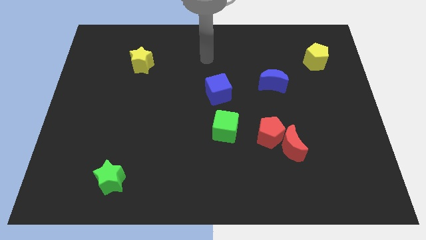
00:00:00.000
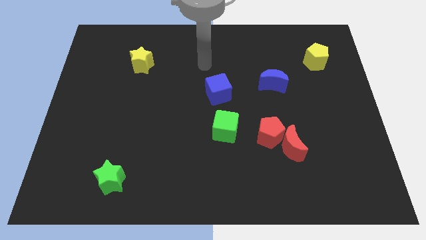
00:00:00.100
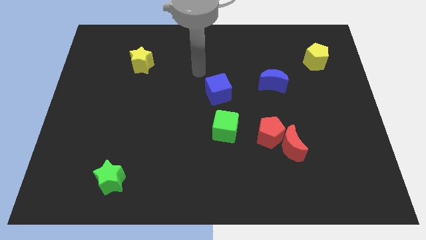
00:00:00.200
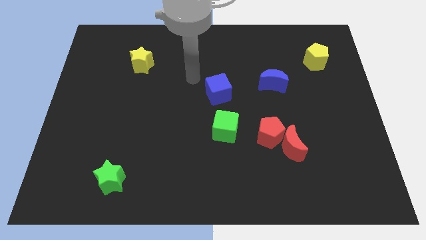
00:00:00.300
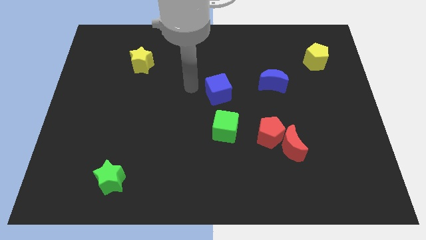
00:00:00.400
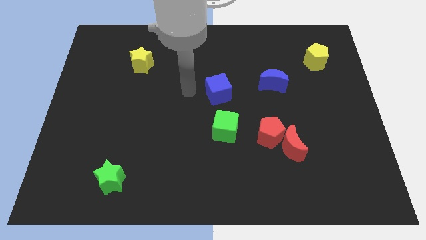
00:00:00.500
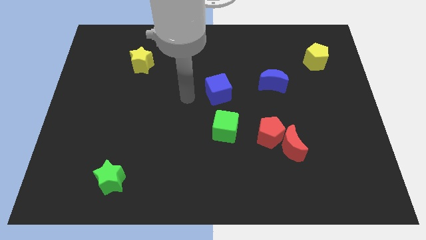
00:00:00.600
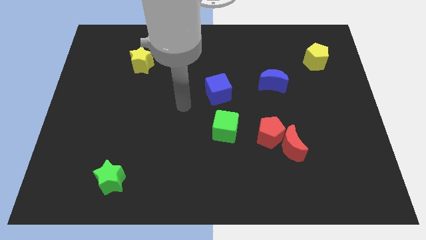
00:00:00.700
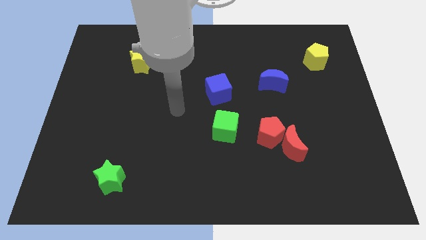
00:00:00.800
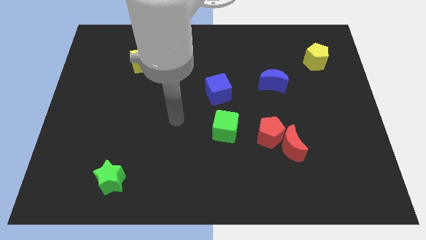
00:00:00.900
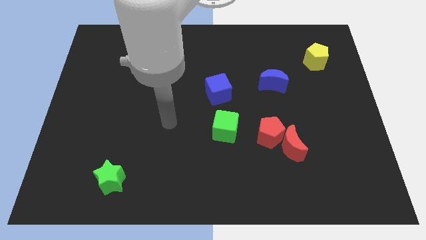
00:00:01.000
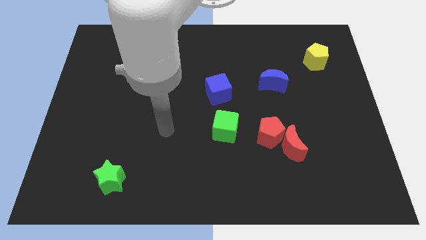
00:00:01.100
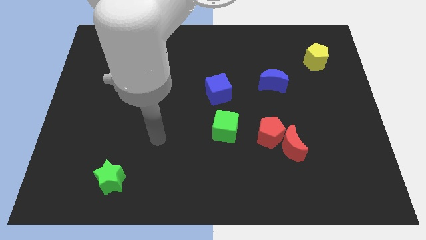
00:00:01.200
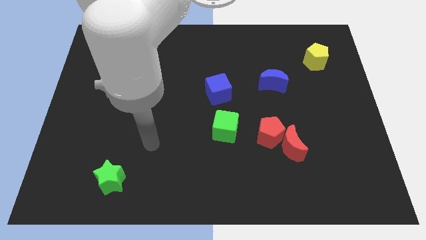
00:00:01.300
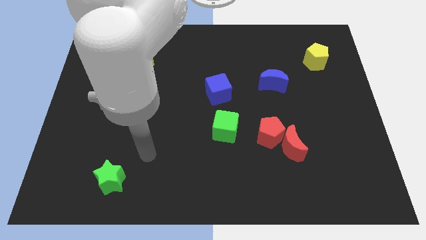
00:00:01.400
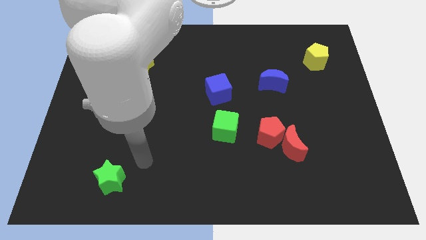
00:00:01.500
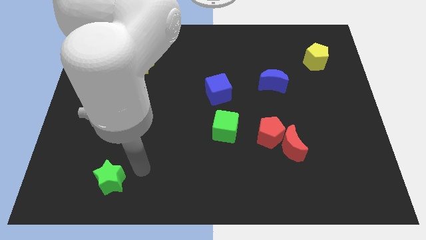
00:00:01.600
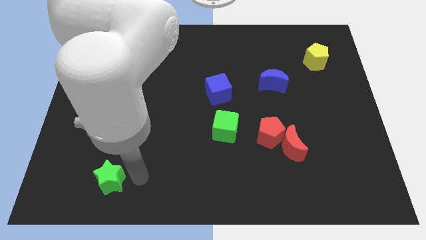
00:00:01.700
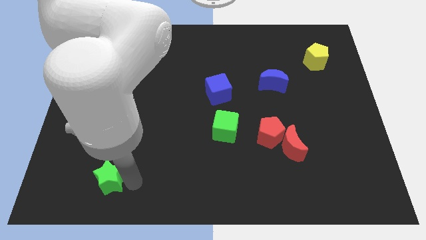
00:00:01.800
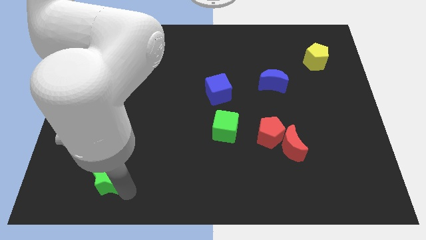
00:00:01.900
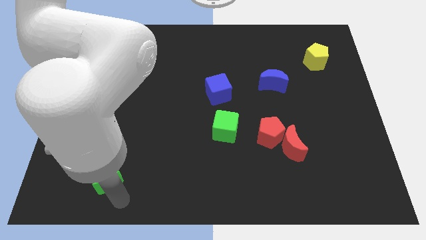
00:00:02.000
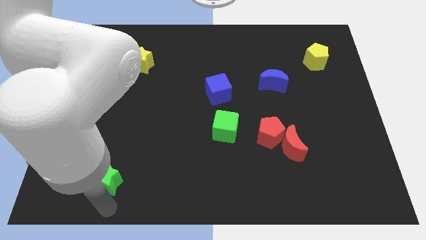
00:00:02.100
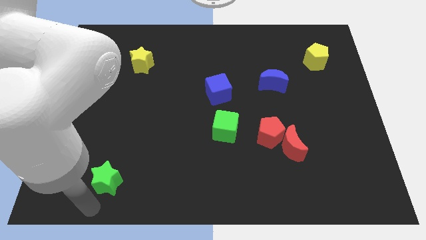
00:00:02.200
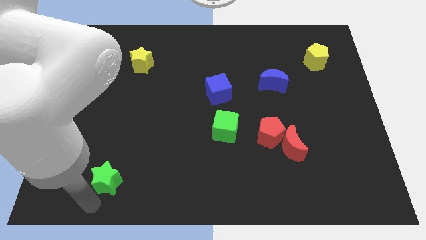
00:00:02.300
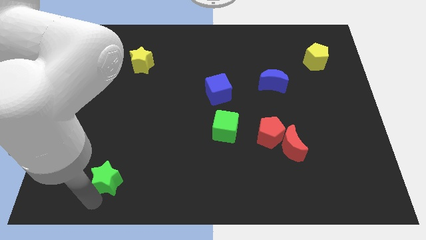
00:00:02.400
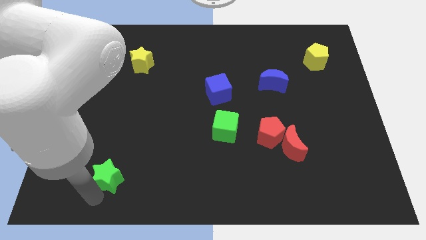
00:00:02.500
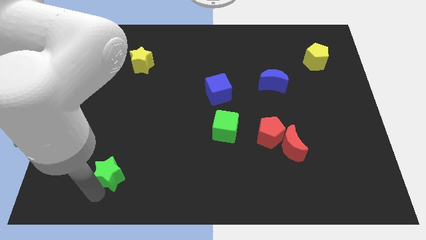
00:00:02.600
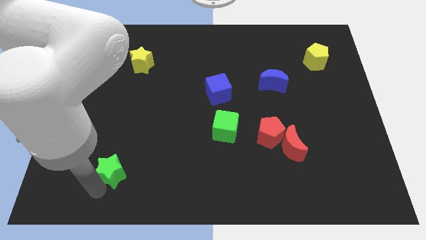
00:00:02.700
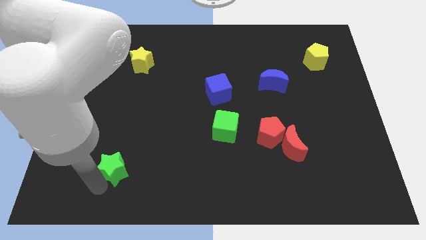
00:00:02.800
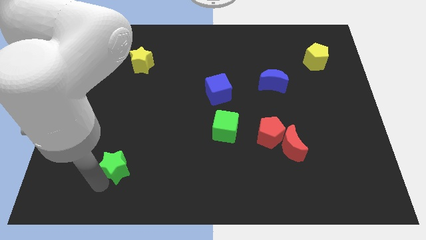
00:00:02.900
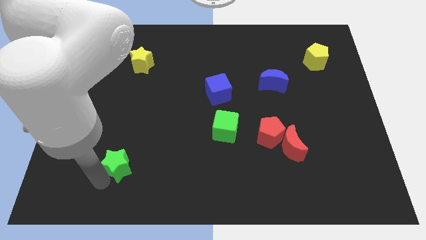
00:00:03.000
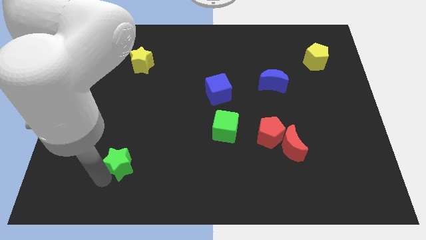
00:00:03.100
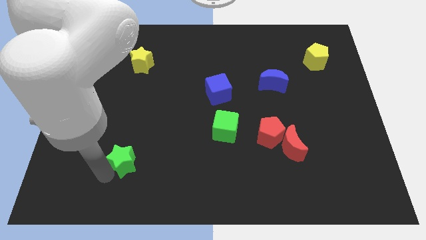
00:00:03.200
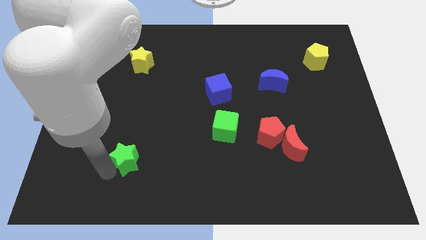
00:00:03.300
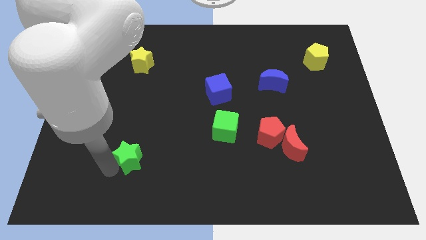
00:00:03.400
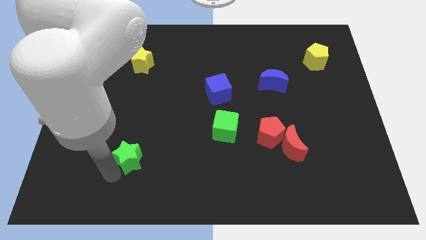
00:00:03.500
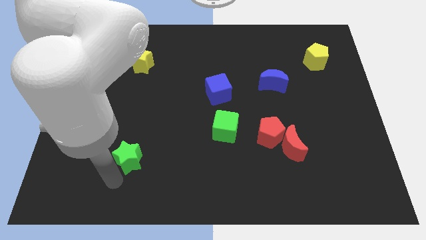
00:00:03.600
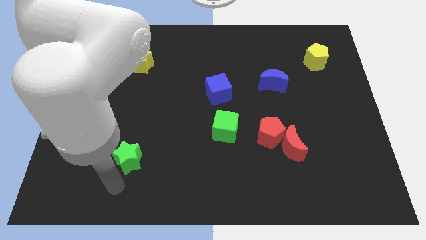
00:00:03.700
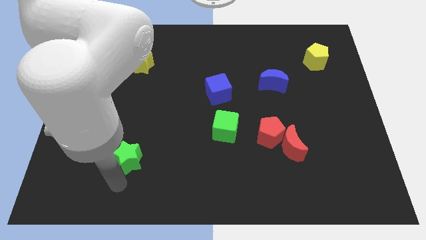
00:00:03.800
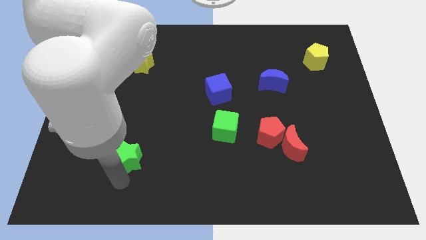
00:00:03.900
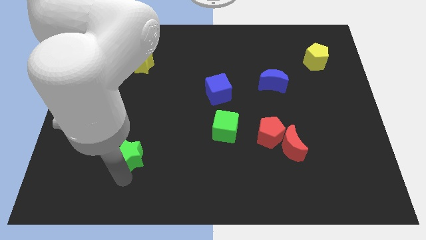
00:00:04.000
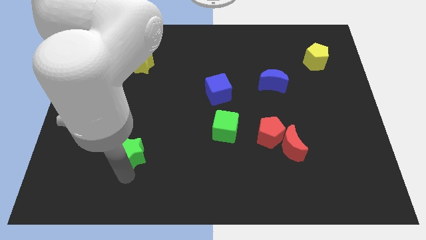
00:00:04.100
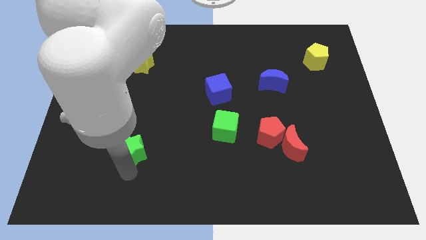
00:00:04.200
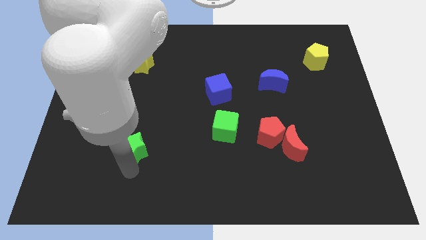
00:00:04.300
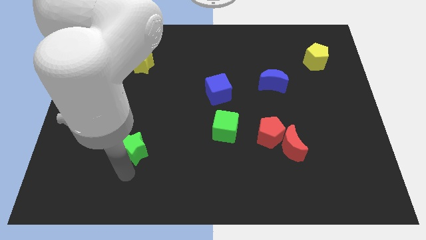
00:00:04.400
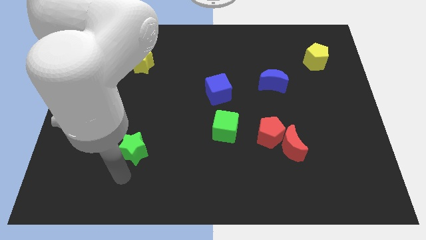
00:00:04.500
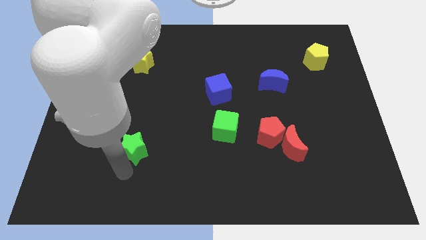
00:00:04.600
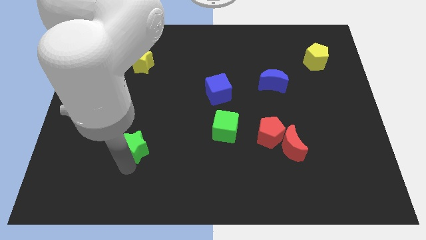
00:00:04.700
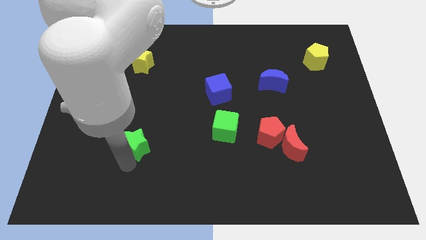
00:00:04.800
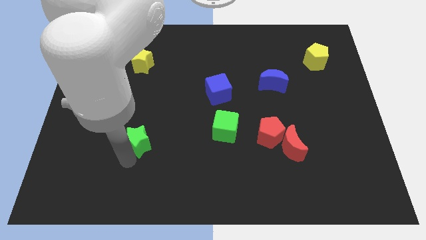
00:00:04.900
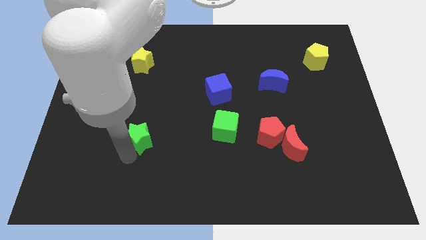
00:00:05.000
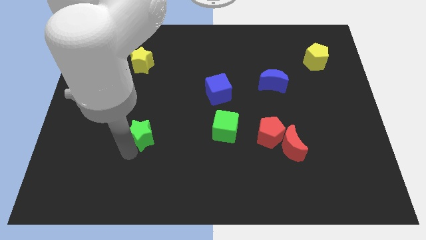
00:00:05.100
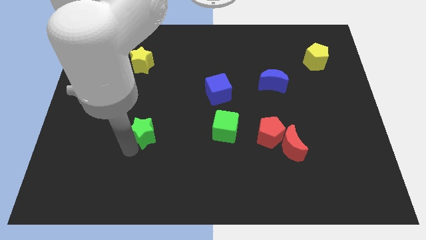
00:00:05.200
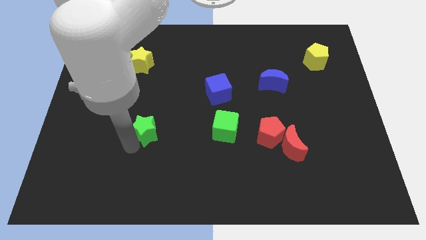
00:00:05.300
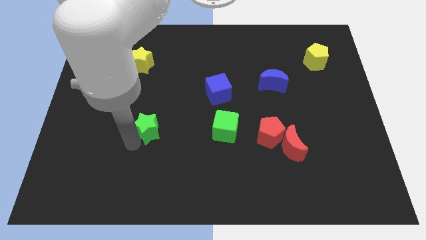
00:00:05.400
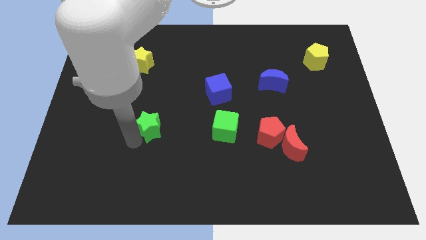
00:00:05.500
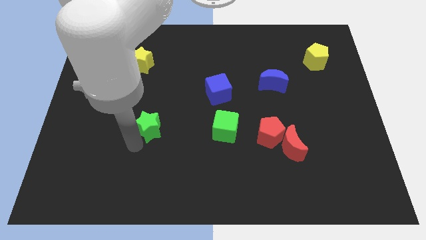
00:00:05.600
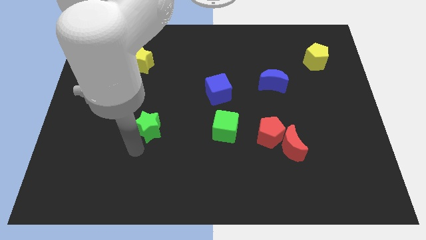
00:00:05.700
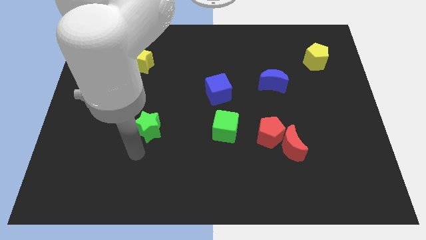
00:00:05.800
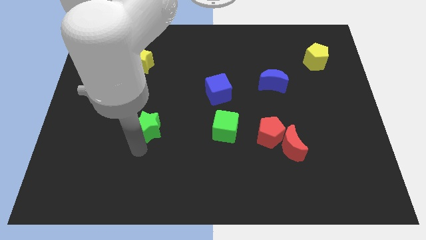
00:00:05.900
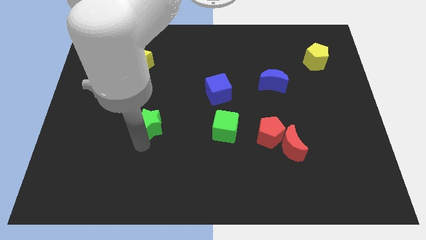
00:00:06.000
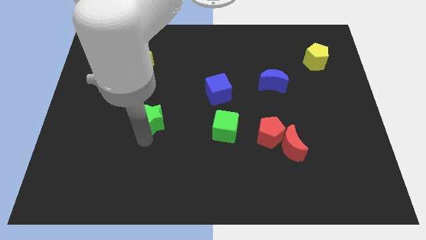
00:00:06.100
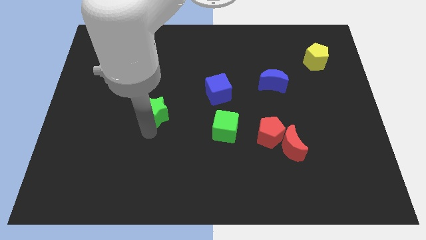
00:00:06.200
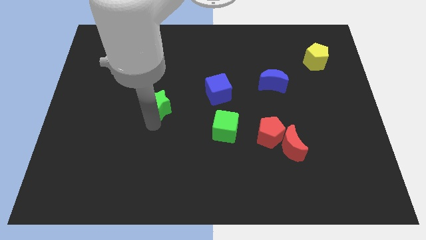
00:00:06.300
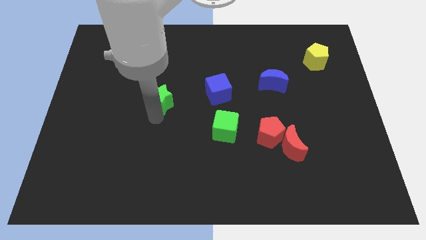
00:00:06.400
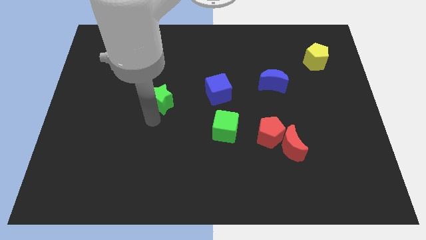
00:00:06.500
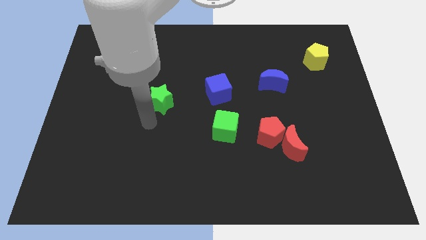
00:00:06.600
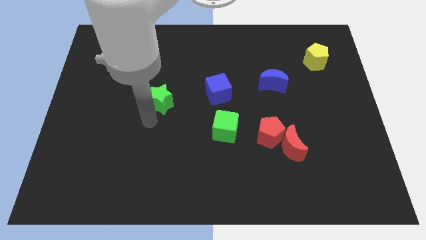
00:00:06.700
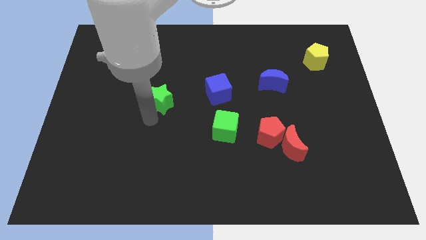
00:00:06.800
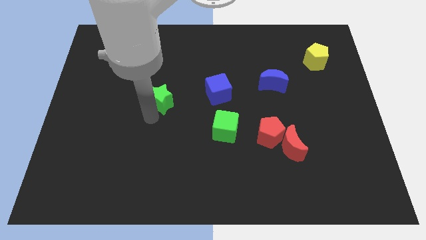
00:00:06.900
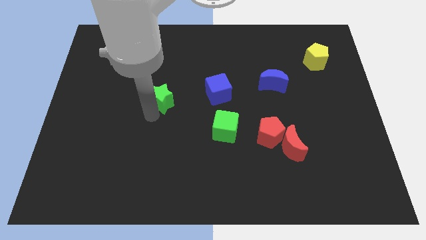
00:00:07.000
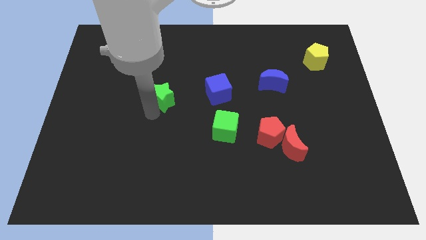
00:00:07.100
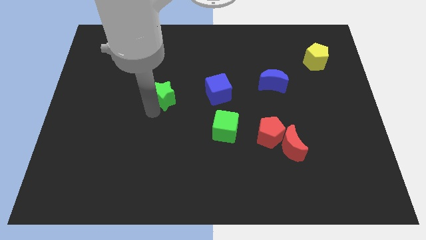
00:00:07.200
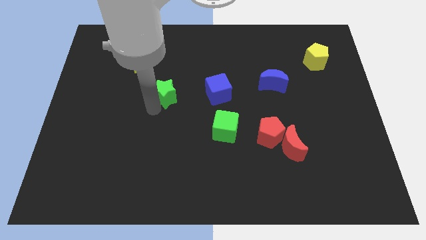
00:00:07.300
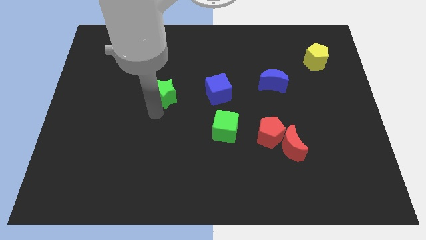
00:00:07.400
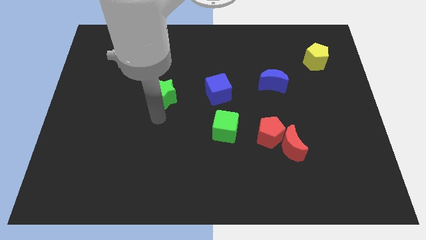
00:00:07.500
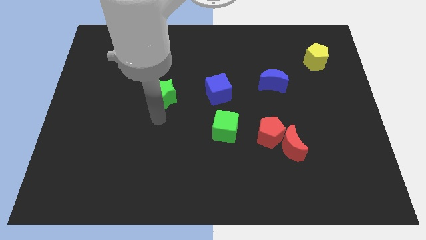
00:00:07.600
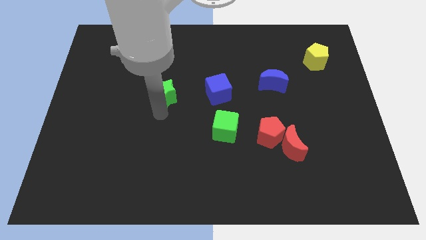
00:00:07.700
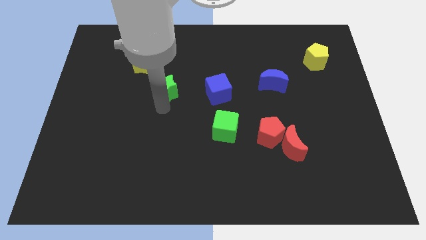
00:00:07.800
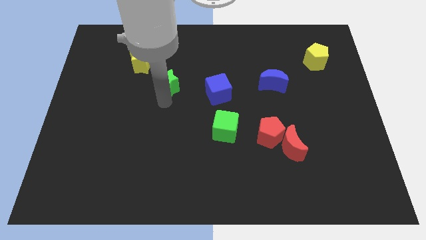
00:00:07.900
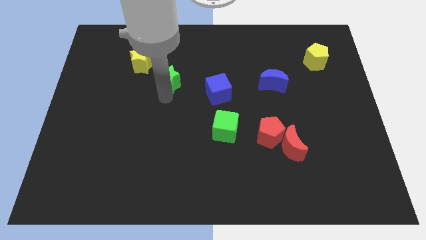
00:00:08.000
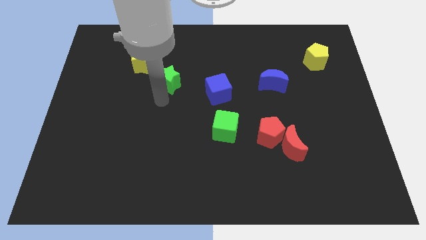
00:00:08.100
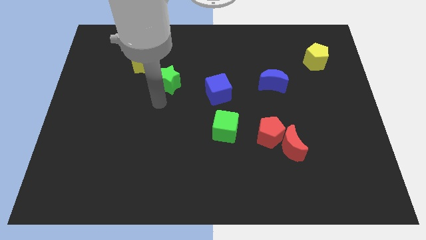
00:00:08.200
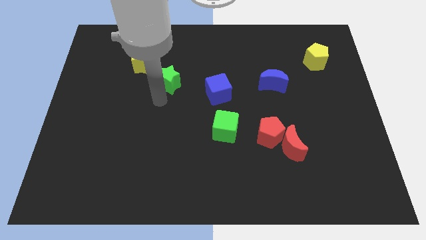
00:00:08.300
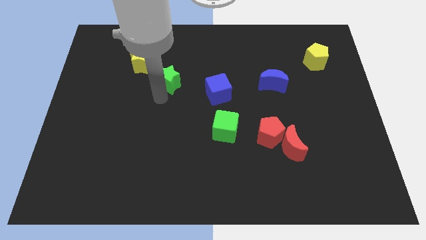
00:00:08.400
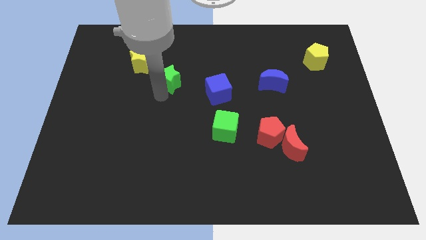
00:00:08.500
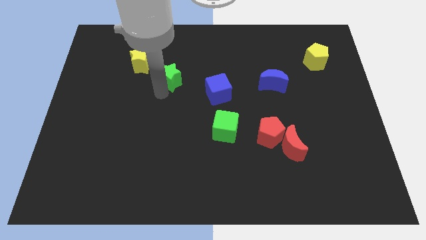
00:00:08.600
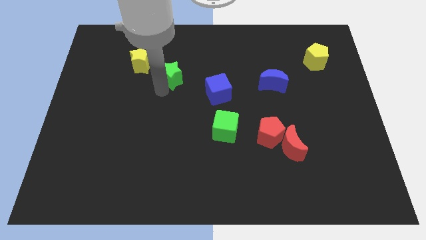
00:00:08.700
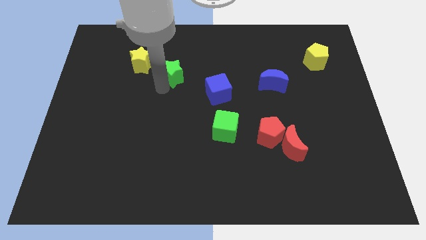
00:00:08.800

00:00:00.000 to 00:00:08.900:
put the green star to the right of the yellow star
